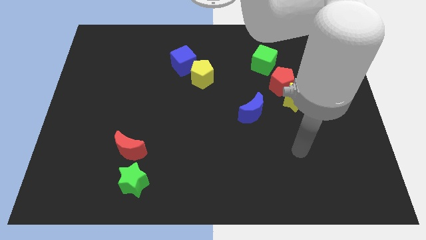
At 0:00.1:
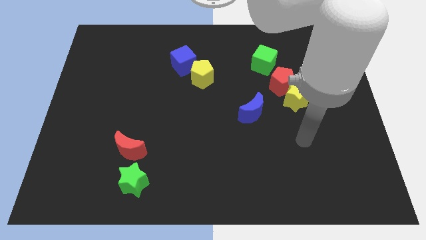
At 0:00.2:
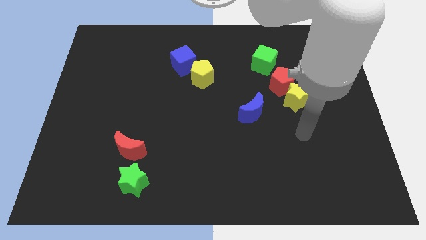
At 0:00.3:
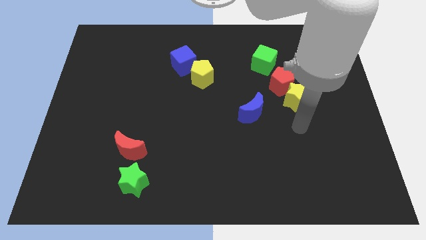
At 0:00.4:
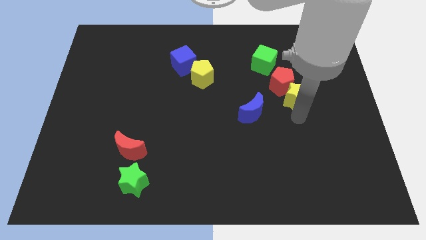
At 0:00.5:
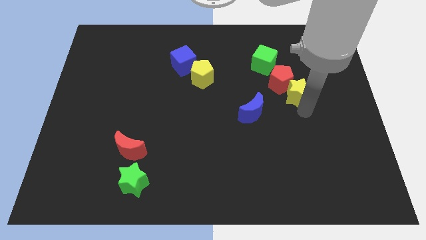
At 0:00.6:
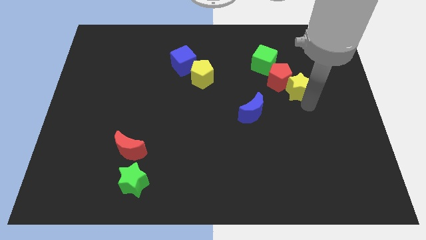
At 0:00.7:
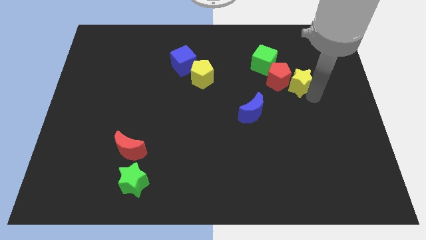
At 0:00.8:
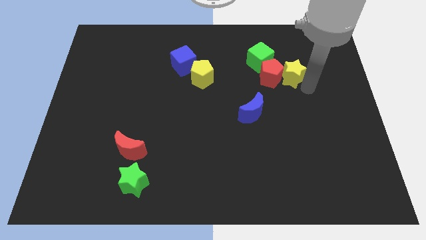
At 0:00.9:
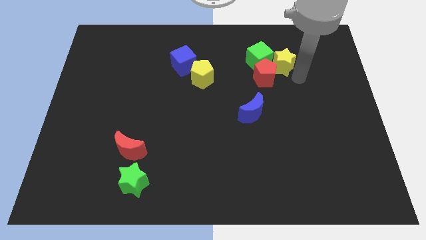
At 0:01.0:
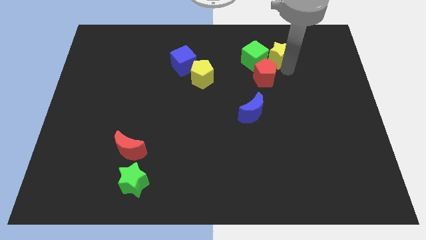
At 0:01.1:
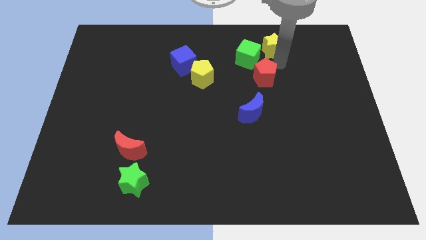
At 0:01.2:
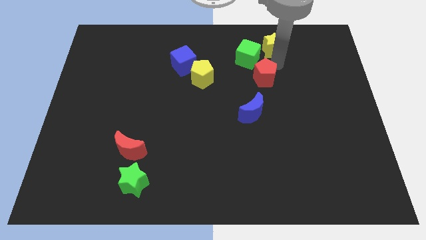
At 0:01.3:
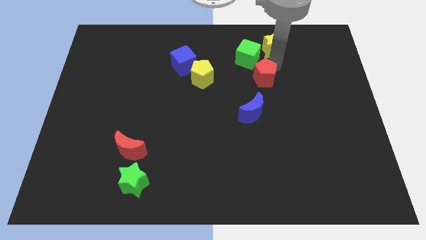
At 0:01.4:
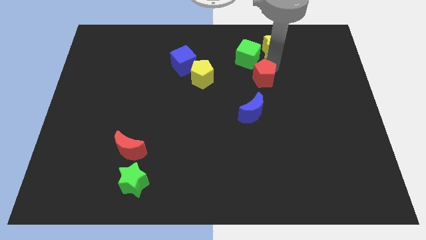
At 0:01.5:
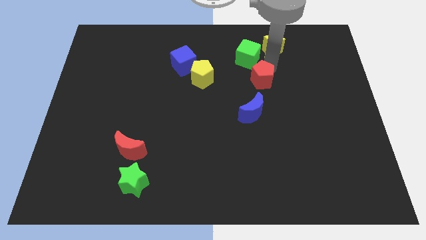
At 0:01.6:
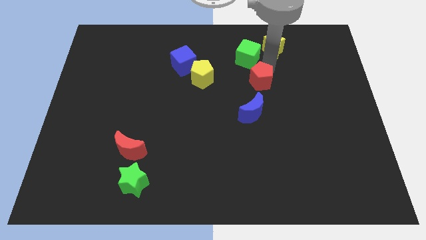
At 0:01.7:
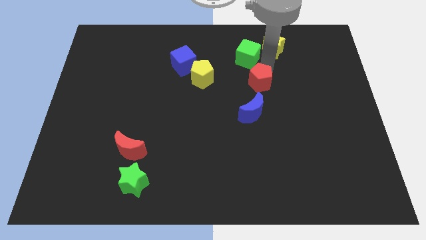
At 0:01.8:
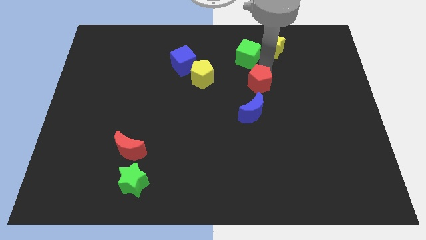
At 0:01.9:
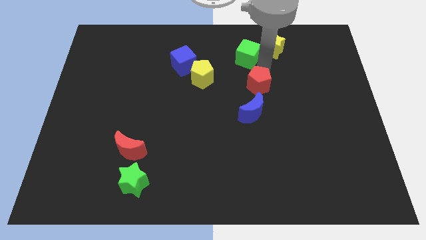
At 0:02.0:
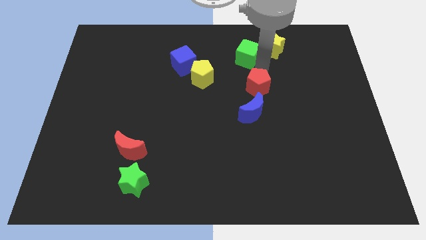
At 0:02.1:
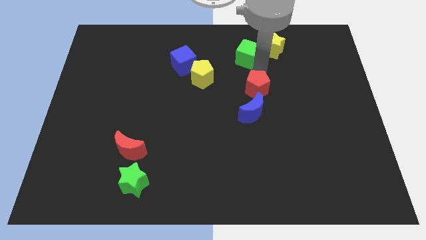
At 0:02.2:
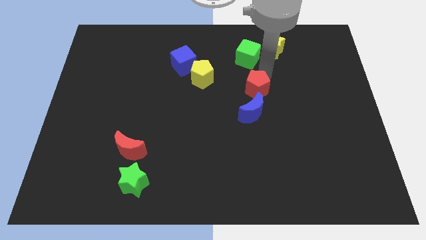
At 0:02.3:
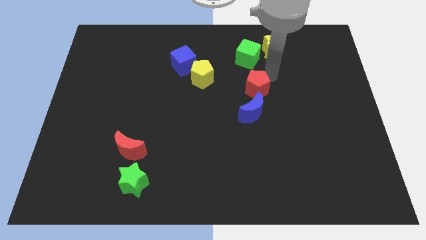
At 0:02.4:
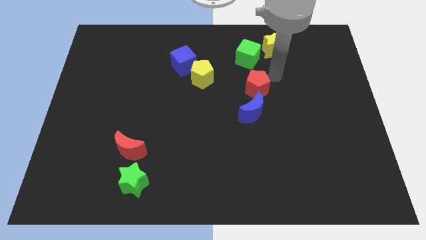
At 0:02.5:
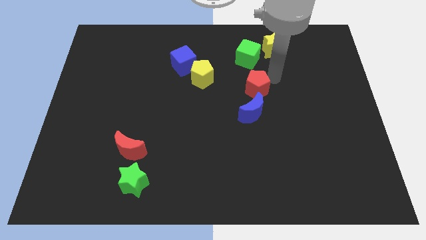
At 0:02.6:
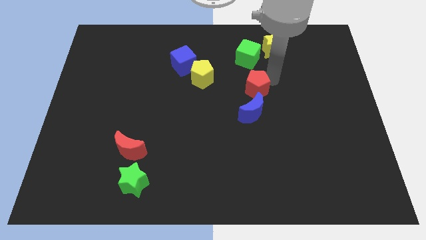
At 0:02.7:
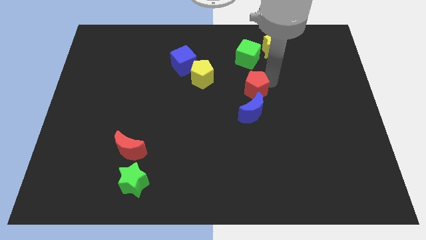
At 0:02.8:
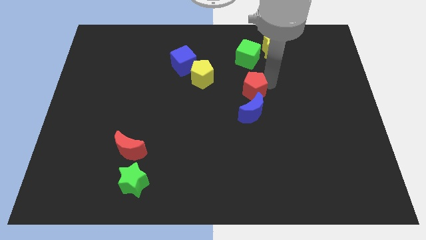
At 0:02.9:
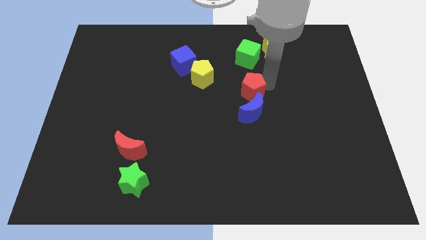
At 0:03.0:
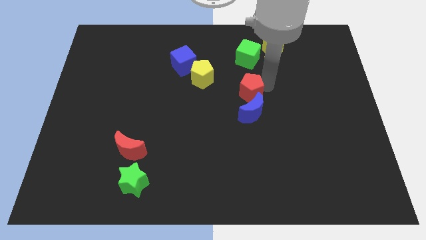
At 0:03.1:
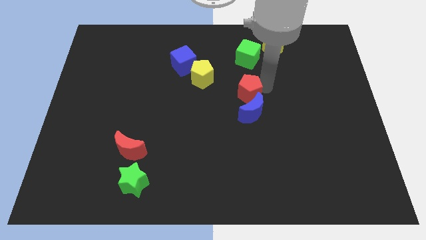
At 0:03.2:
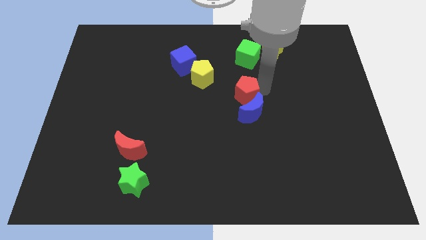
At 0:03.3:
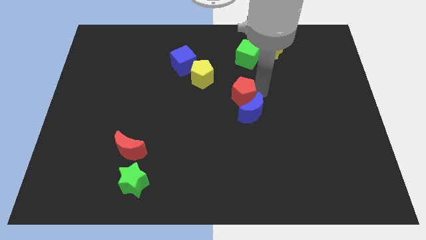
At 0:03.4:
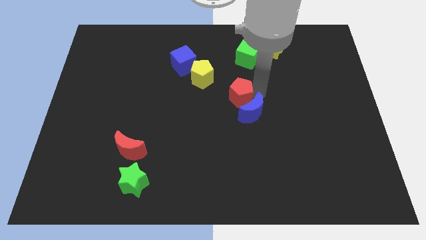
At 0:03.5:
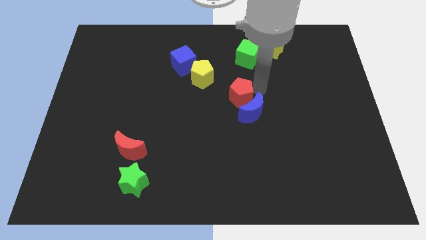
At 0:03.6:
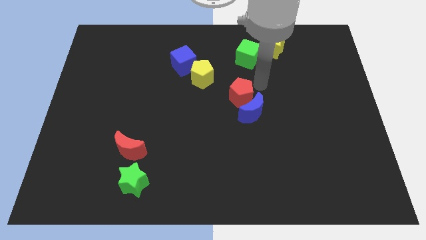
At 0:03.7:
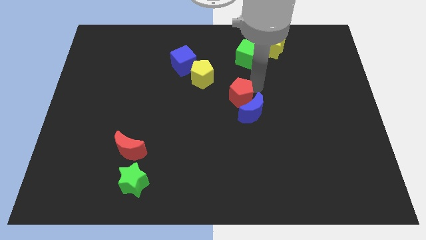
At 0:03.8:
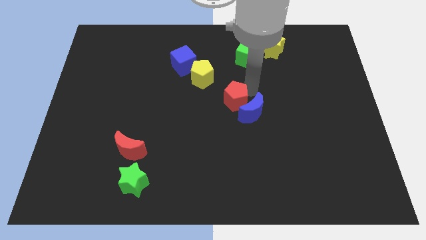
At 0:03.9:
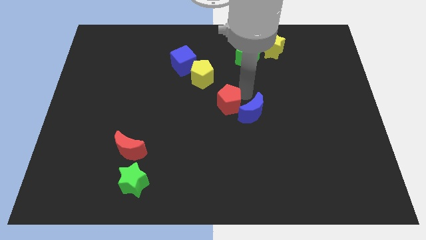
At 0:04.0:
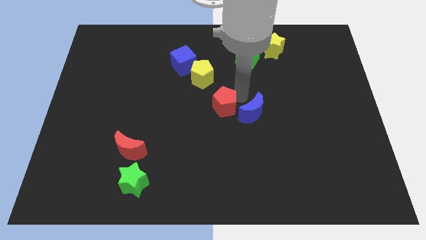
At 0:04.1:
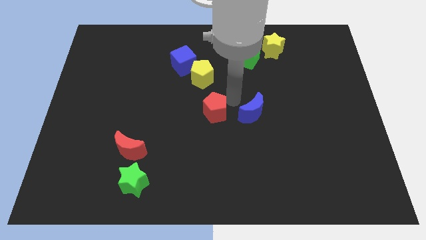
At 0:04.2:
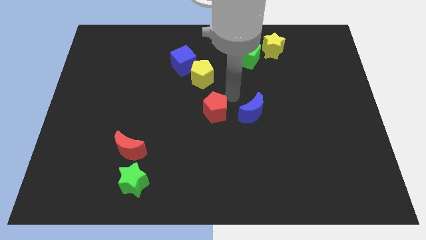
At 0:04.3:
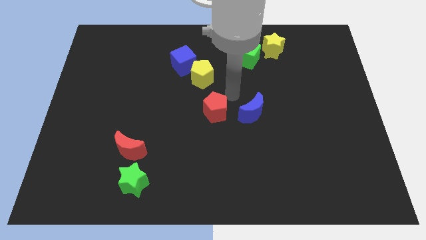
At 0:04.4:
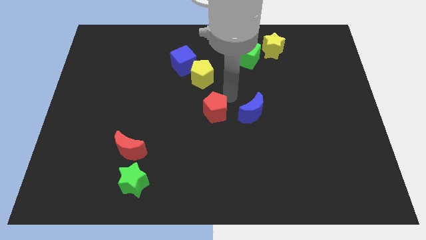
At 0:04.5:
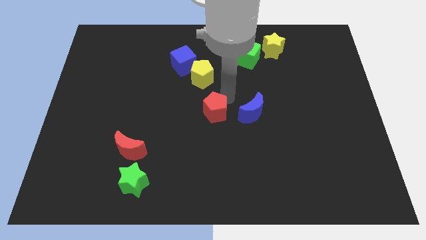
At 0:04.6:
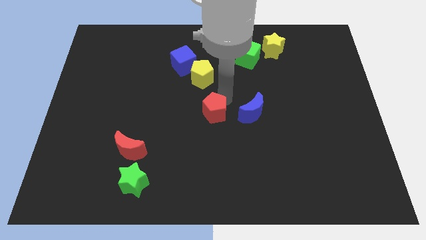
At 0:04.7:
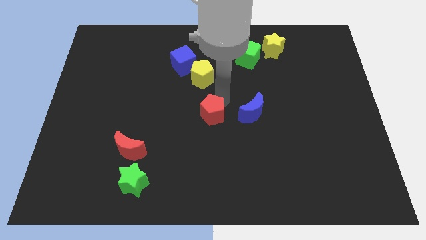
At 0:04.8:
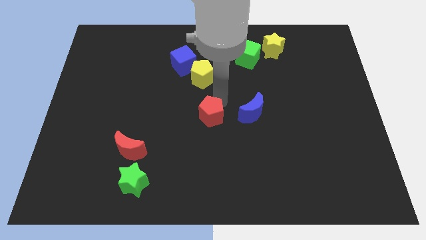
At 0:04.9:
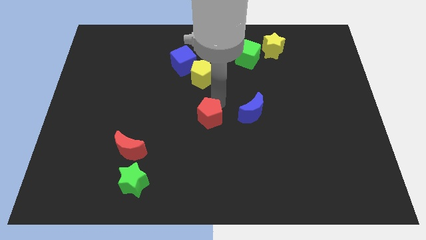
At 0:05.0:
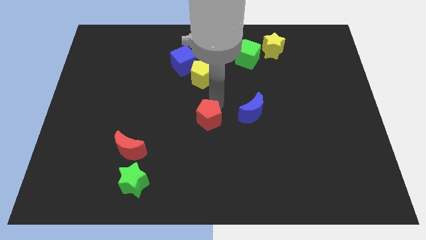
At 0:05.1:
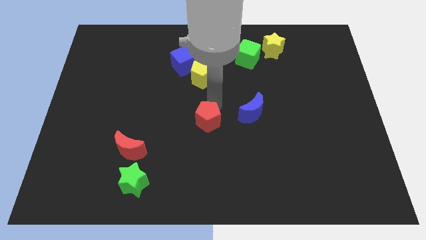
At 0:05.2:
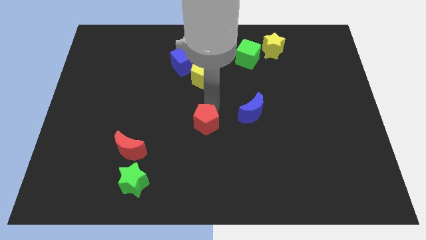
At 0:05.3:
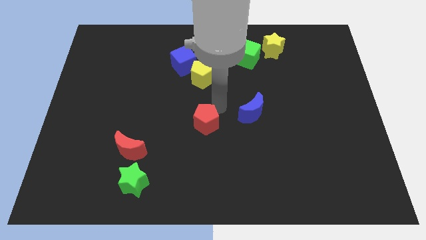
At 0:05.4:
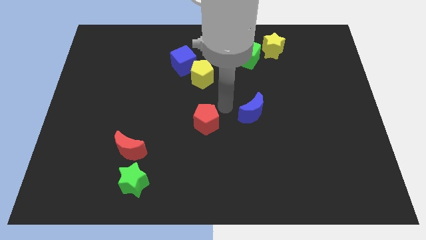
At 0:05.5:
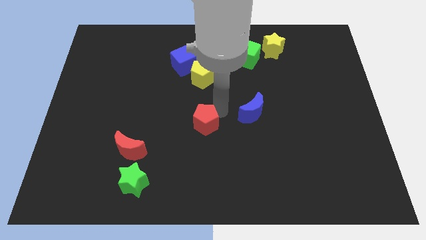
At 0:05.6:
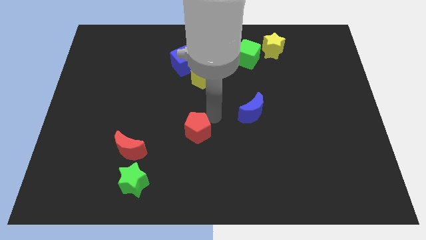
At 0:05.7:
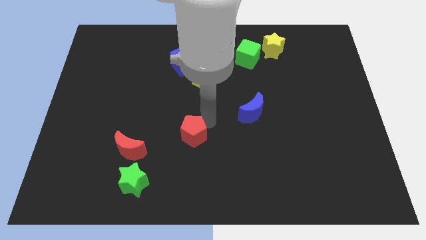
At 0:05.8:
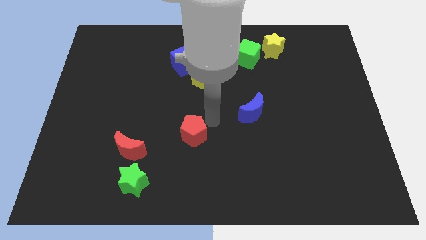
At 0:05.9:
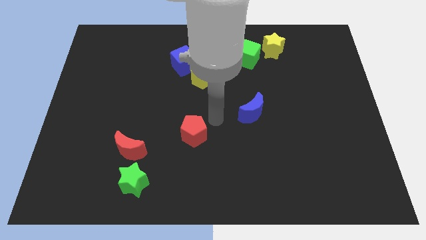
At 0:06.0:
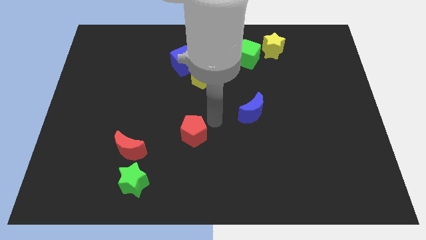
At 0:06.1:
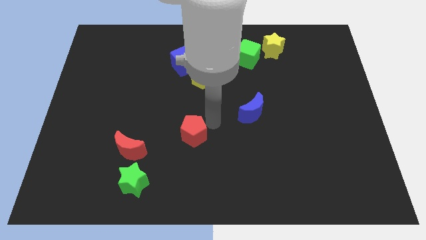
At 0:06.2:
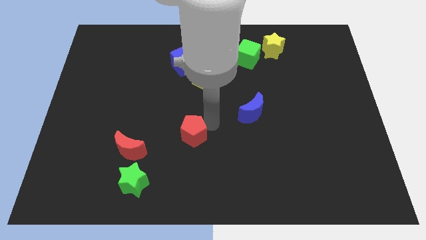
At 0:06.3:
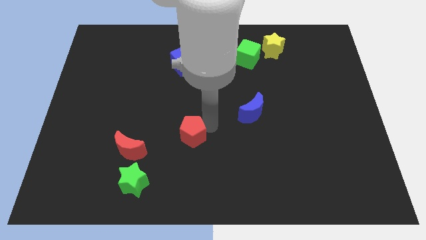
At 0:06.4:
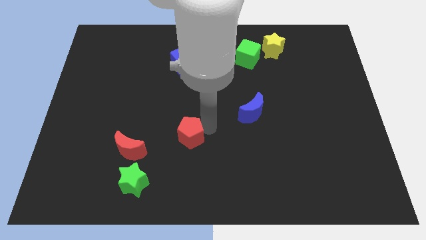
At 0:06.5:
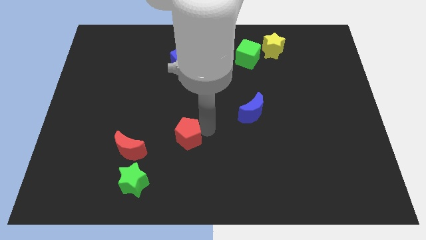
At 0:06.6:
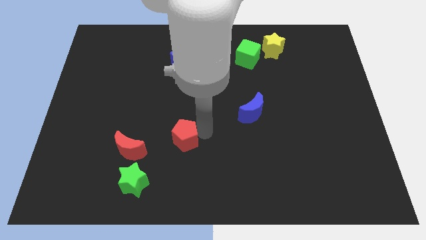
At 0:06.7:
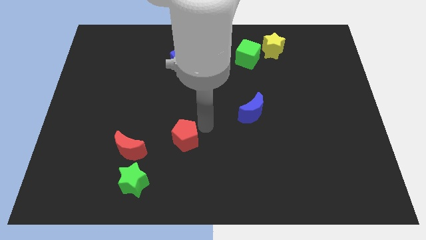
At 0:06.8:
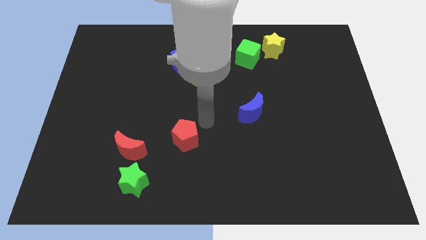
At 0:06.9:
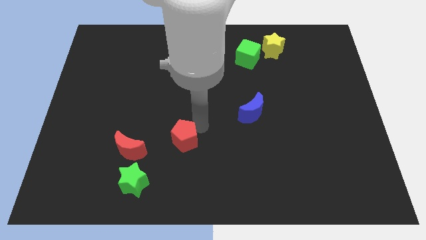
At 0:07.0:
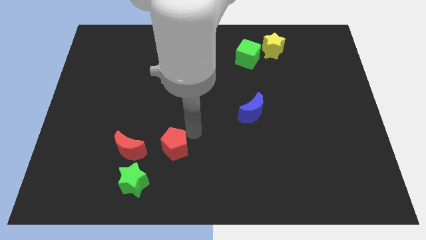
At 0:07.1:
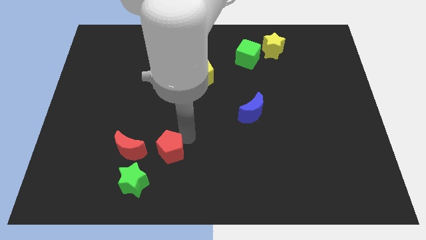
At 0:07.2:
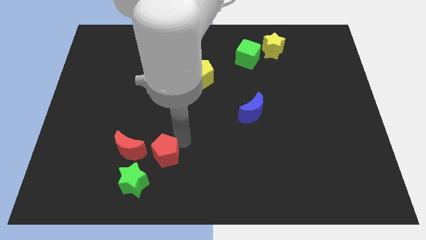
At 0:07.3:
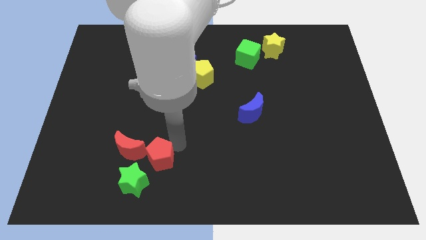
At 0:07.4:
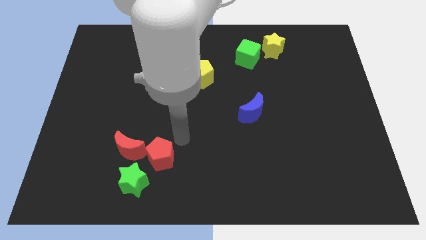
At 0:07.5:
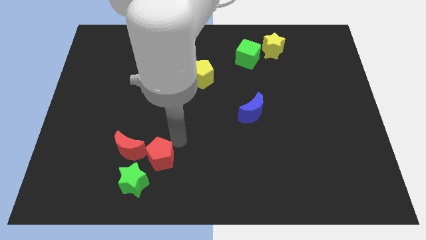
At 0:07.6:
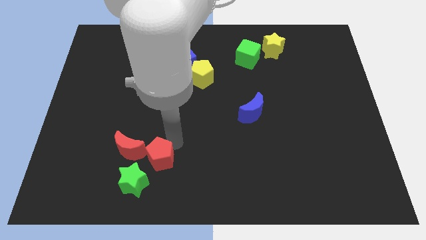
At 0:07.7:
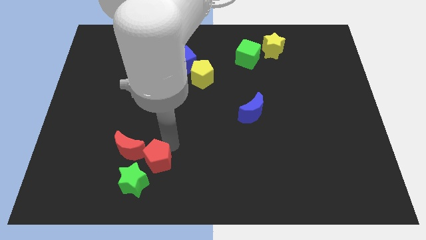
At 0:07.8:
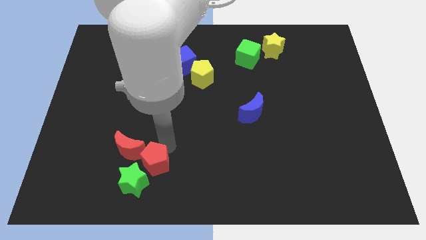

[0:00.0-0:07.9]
put the red pentagon towards the green star
